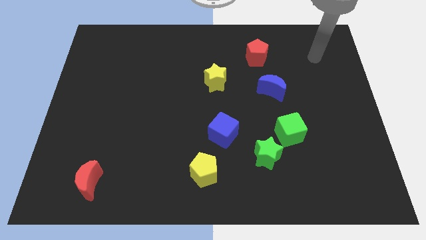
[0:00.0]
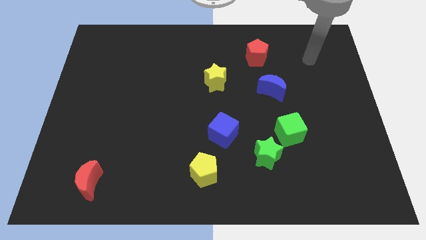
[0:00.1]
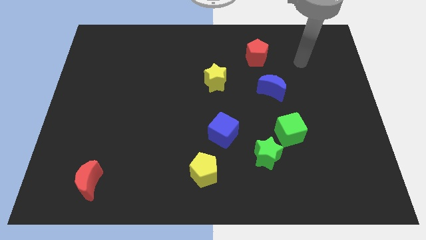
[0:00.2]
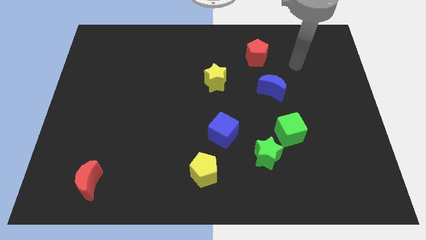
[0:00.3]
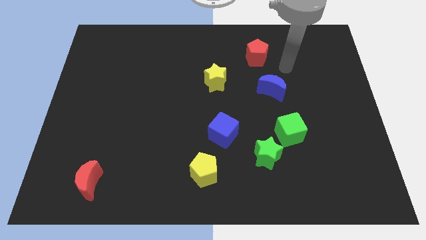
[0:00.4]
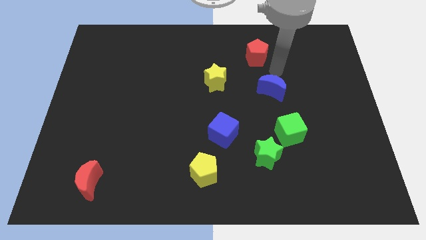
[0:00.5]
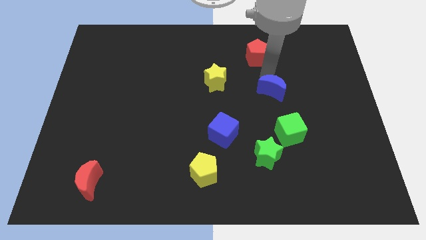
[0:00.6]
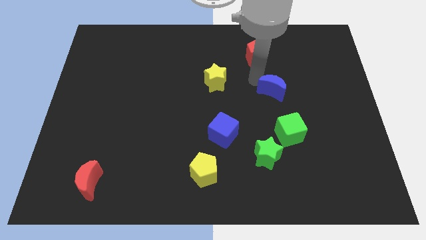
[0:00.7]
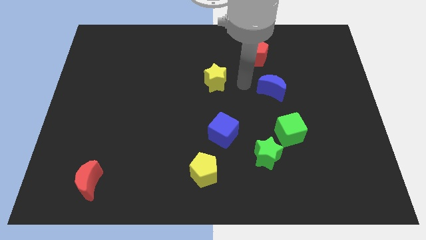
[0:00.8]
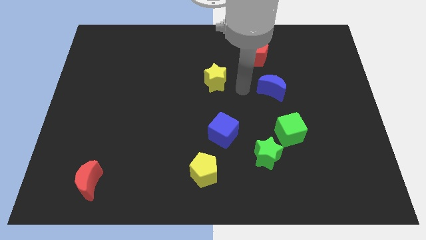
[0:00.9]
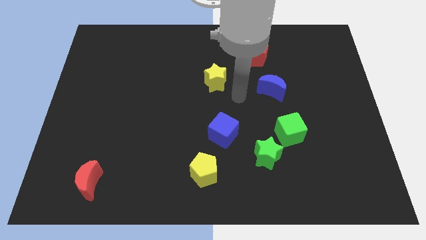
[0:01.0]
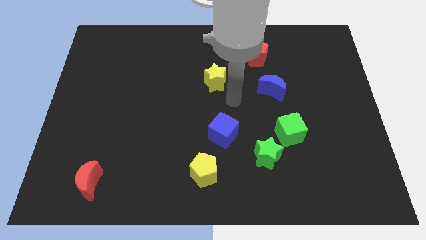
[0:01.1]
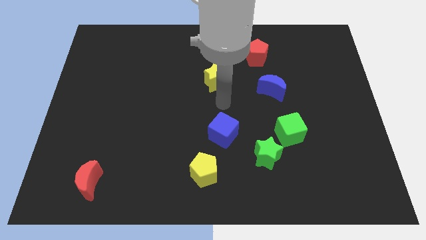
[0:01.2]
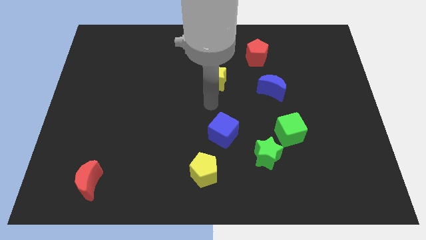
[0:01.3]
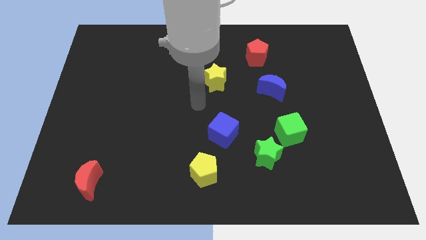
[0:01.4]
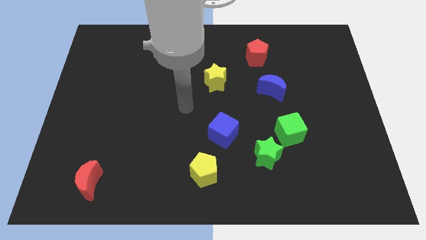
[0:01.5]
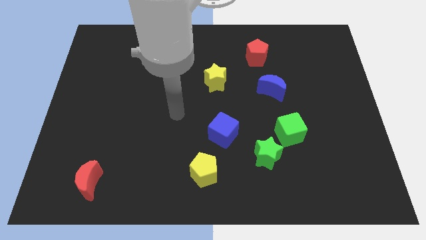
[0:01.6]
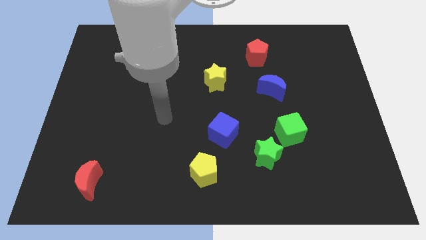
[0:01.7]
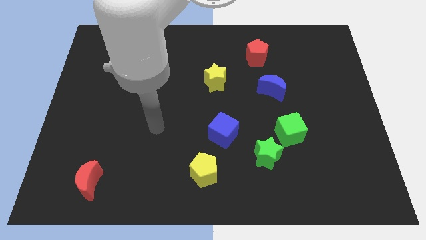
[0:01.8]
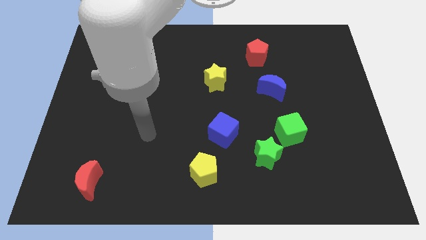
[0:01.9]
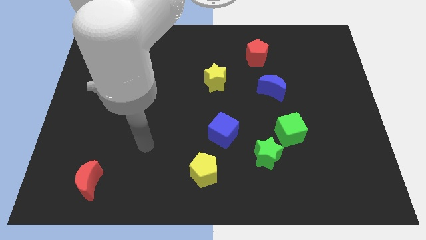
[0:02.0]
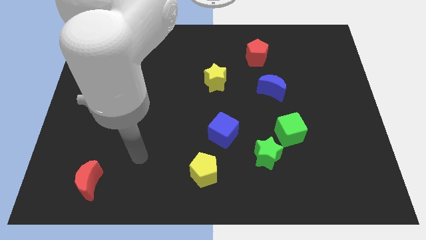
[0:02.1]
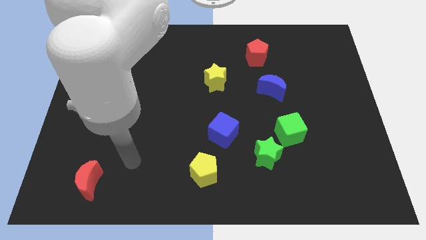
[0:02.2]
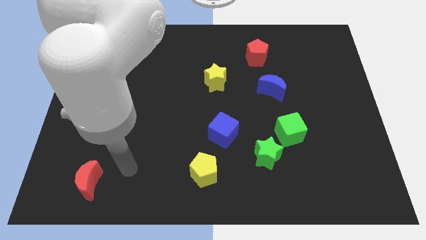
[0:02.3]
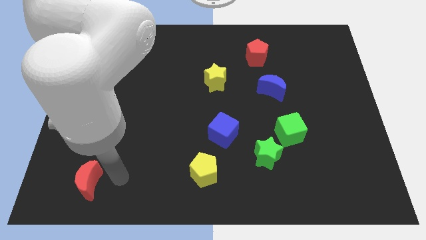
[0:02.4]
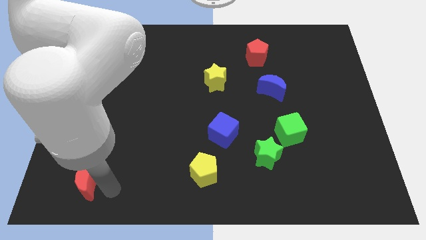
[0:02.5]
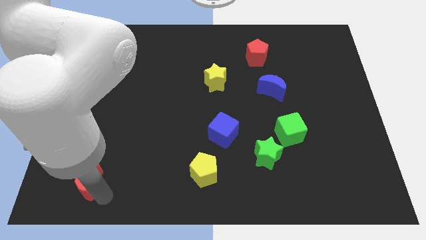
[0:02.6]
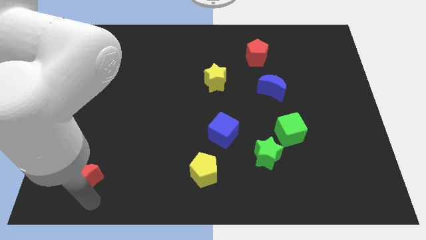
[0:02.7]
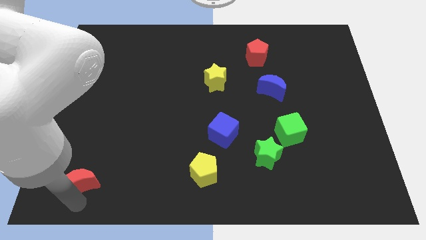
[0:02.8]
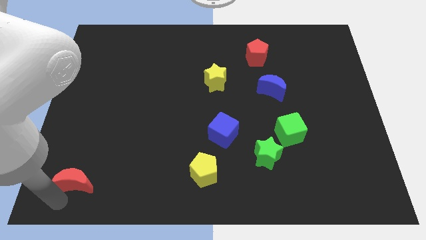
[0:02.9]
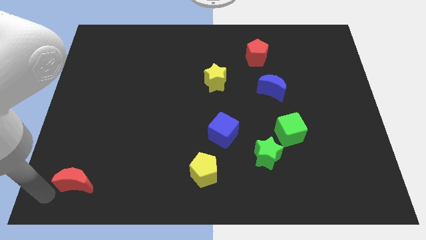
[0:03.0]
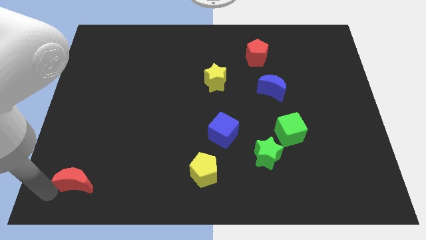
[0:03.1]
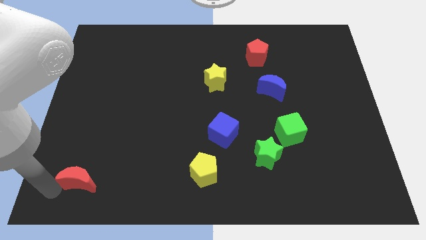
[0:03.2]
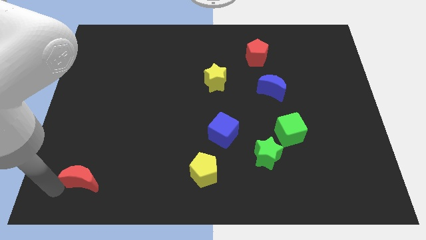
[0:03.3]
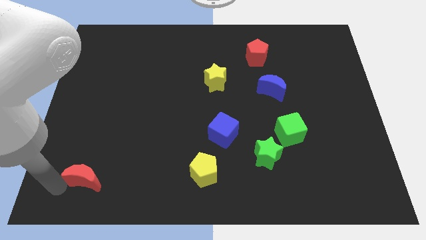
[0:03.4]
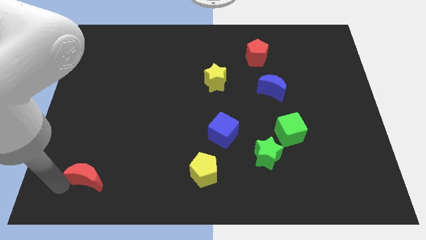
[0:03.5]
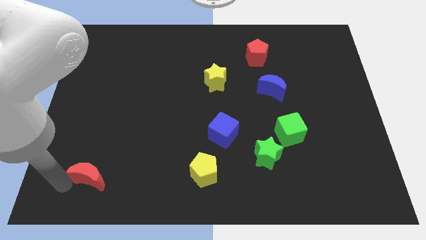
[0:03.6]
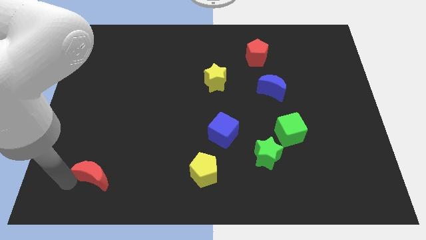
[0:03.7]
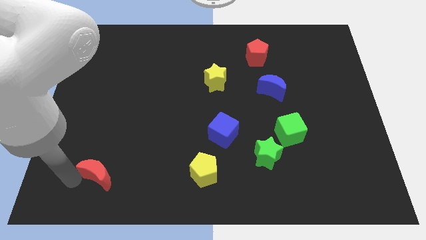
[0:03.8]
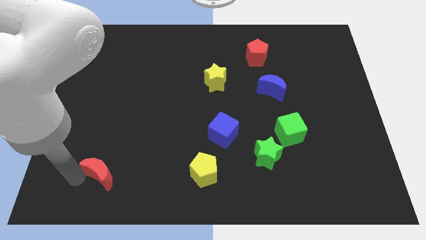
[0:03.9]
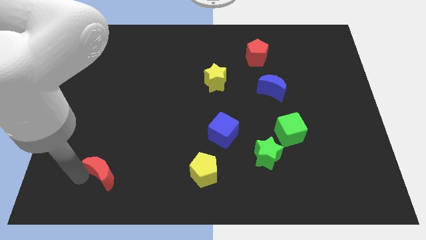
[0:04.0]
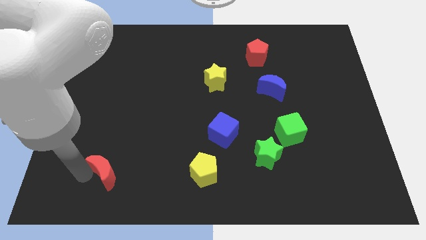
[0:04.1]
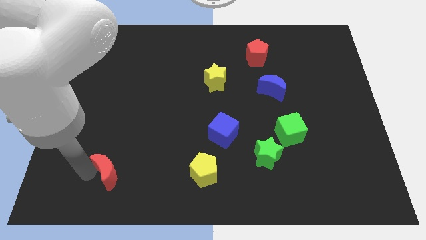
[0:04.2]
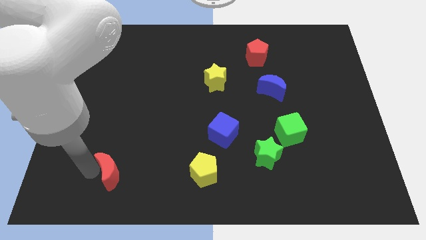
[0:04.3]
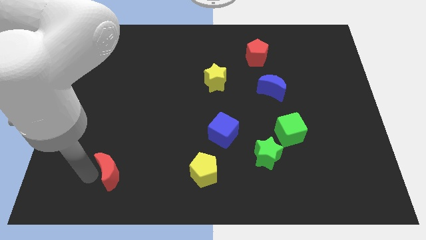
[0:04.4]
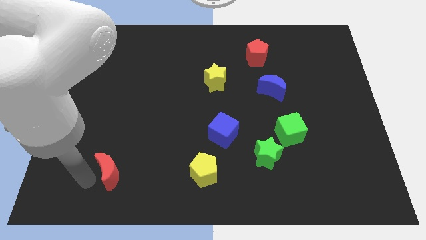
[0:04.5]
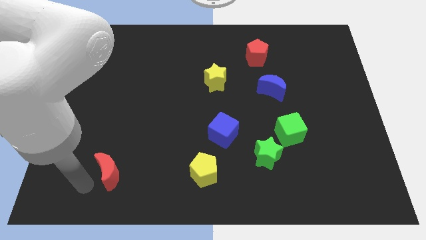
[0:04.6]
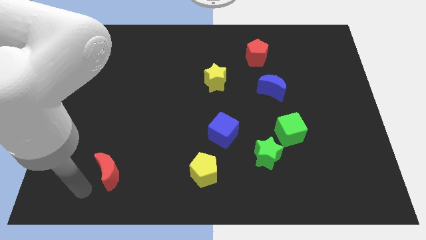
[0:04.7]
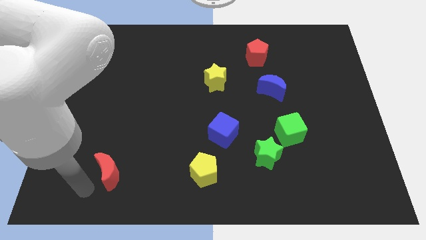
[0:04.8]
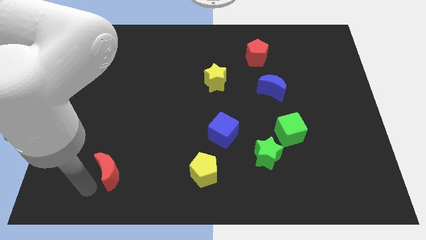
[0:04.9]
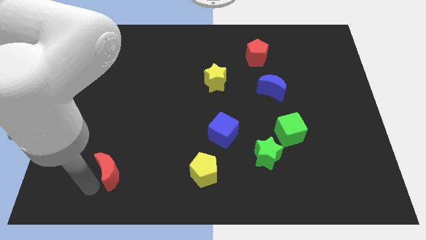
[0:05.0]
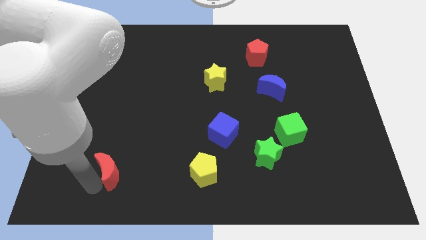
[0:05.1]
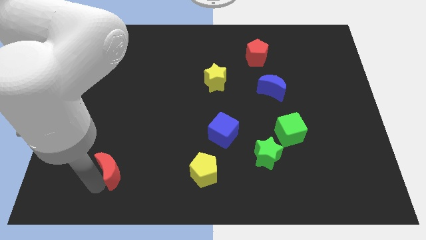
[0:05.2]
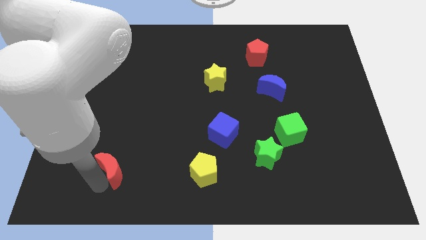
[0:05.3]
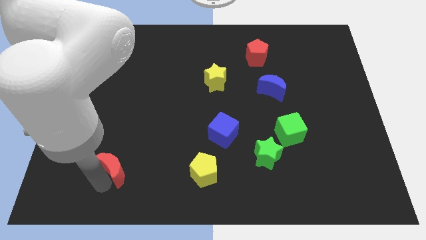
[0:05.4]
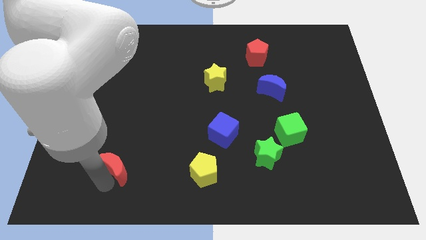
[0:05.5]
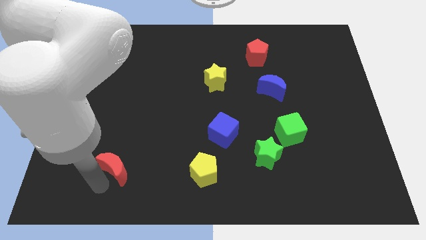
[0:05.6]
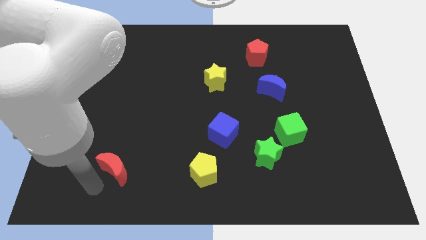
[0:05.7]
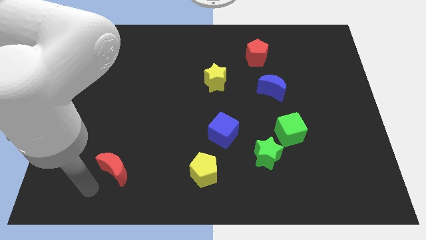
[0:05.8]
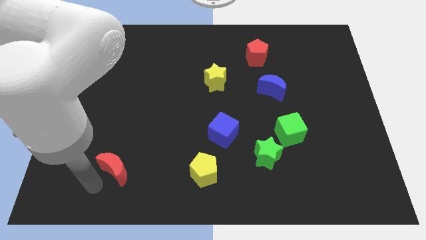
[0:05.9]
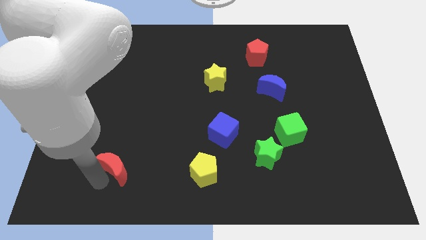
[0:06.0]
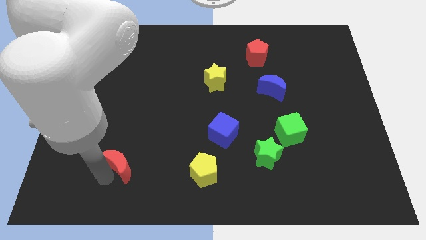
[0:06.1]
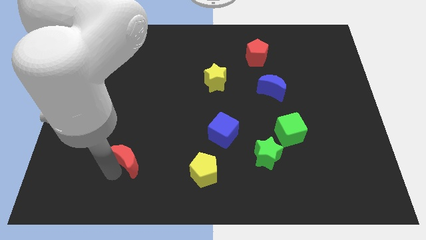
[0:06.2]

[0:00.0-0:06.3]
push the red moon up and to the right diagonally a bit

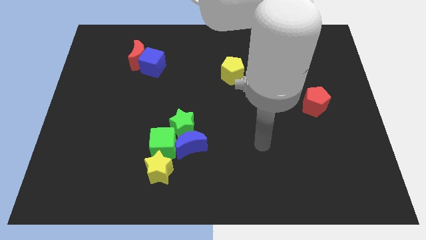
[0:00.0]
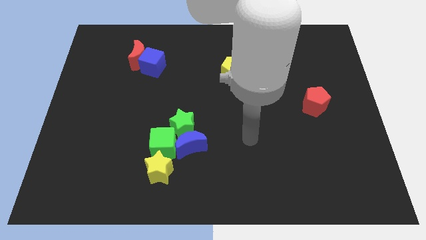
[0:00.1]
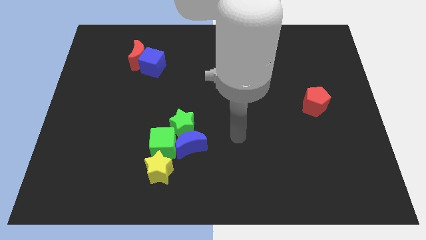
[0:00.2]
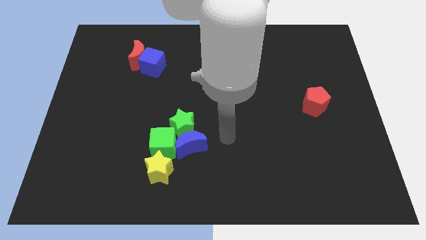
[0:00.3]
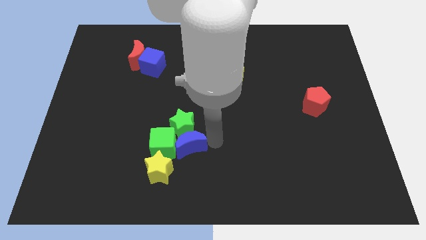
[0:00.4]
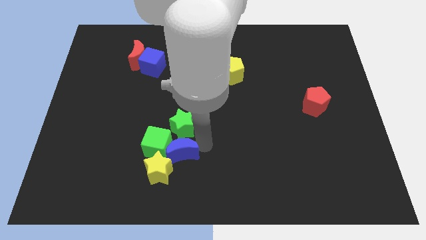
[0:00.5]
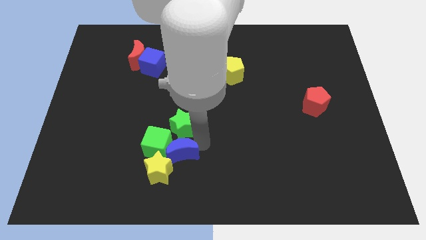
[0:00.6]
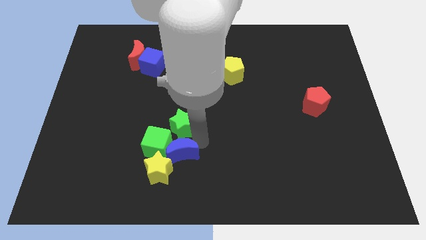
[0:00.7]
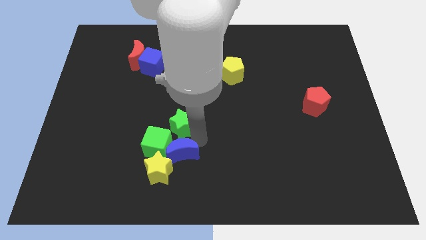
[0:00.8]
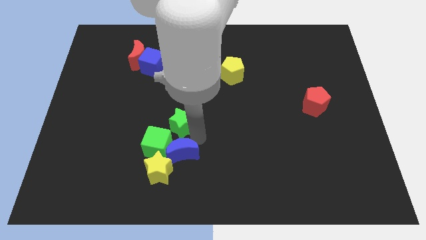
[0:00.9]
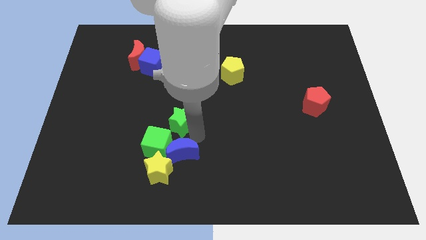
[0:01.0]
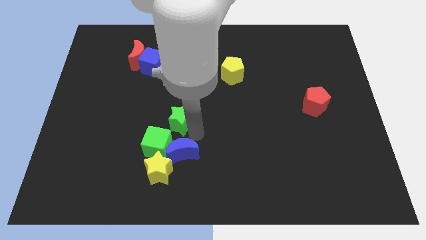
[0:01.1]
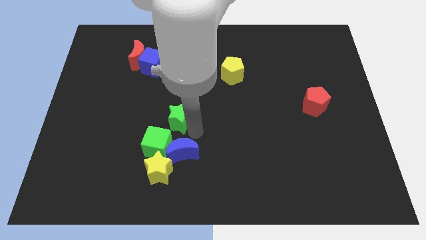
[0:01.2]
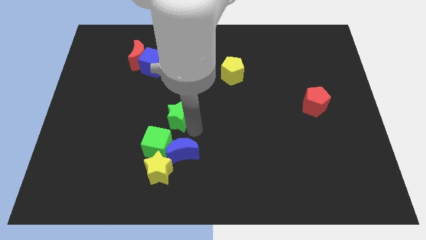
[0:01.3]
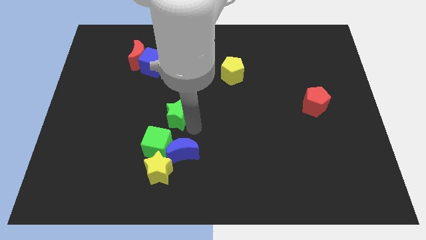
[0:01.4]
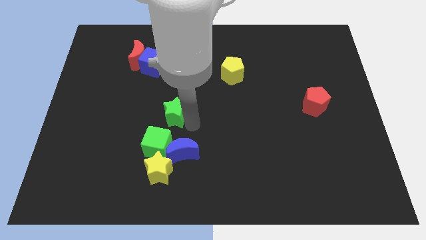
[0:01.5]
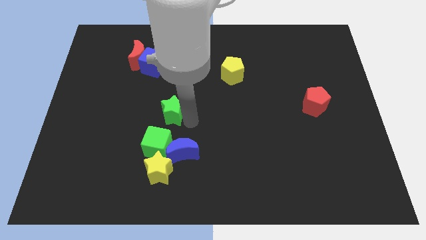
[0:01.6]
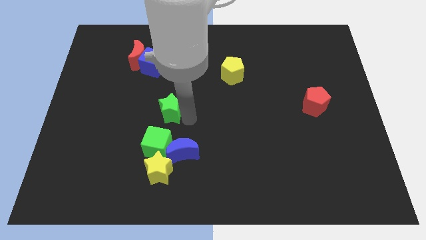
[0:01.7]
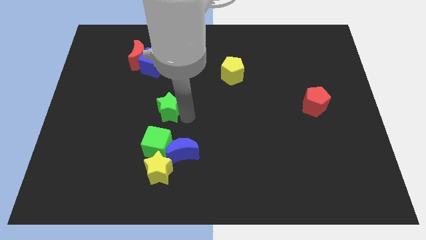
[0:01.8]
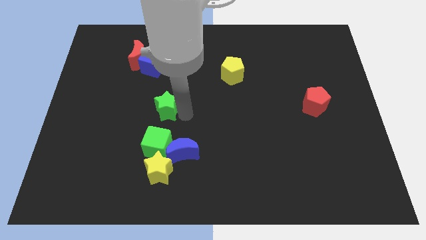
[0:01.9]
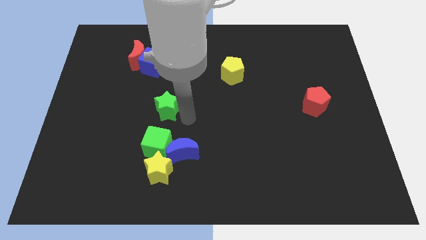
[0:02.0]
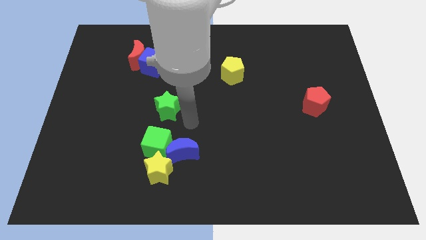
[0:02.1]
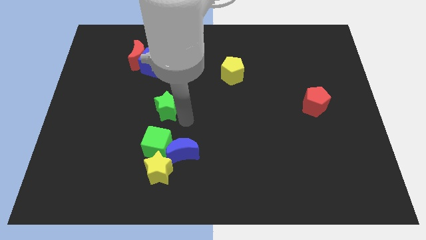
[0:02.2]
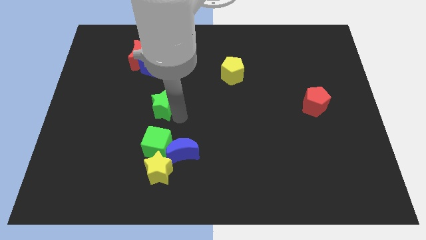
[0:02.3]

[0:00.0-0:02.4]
slightly push the green star upwards and then to the left
